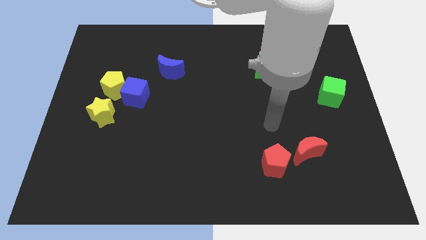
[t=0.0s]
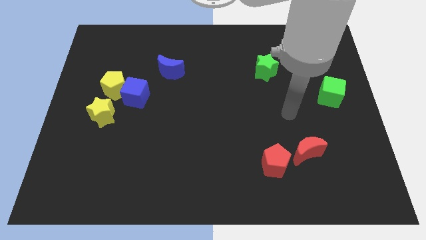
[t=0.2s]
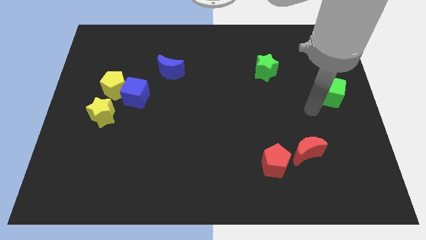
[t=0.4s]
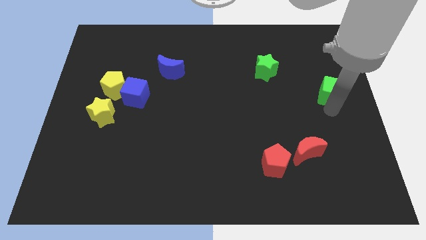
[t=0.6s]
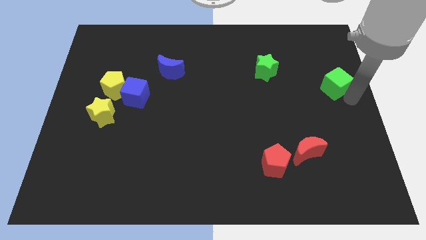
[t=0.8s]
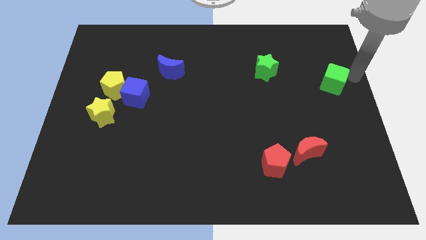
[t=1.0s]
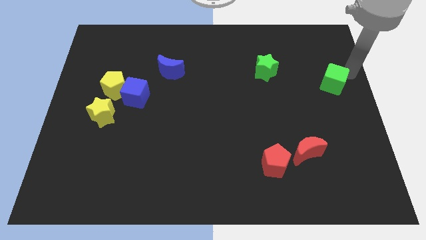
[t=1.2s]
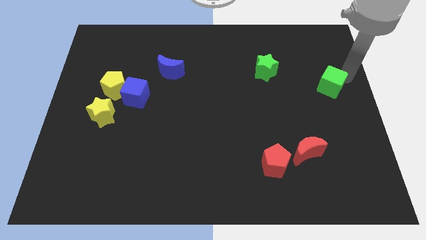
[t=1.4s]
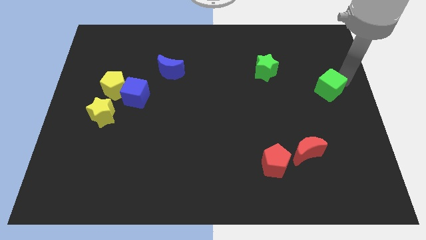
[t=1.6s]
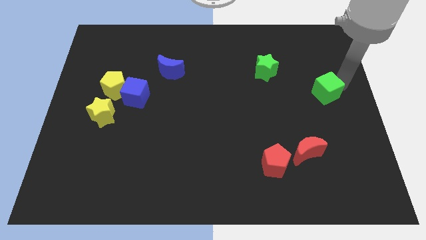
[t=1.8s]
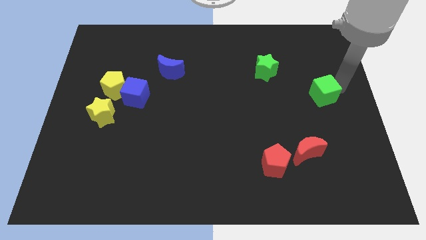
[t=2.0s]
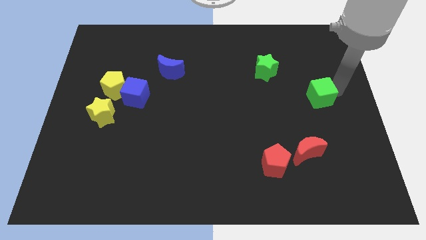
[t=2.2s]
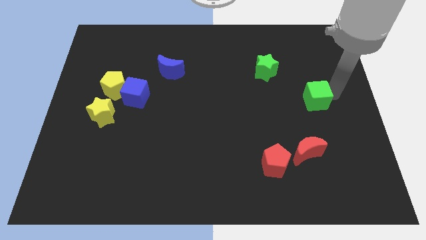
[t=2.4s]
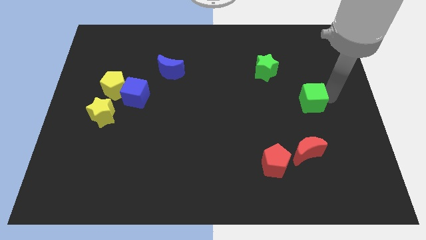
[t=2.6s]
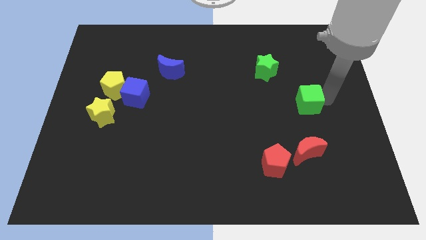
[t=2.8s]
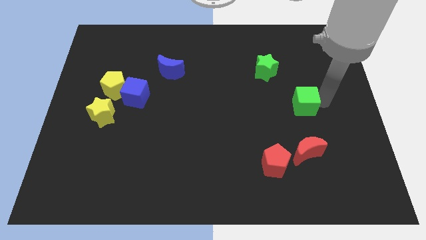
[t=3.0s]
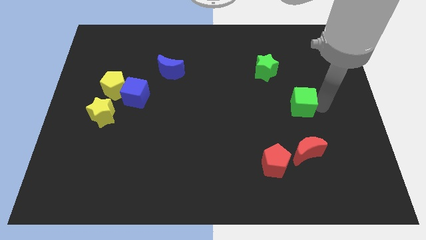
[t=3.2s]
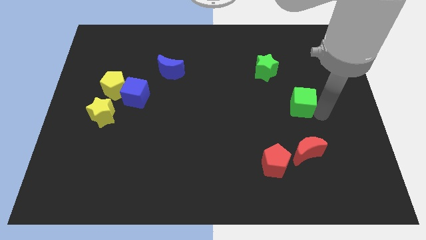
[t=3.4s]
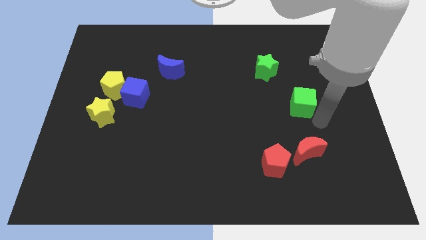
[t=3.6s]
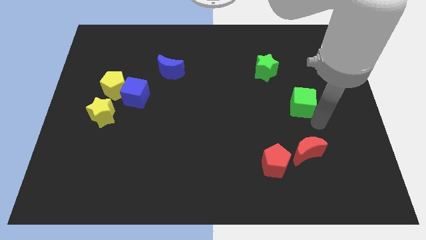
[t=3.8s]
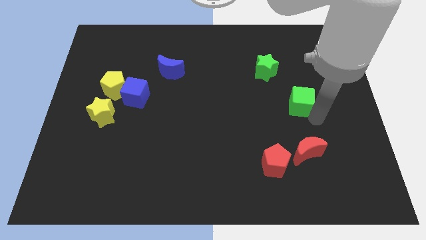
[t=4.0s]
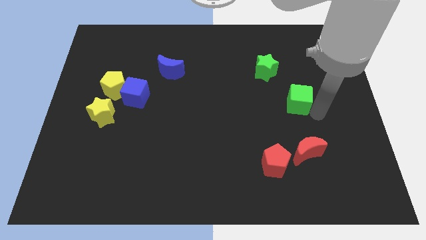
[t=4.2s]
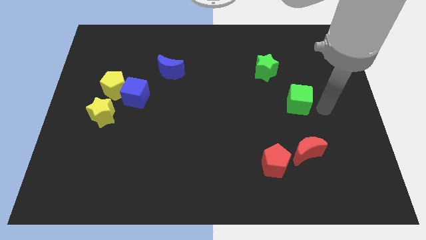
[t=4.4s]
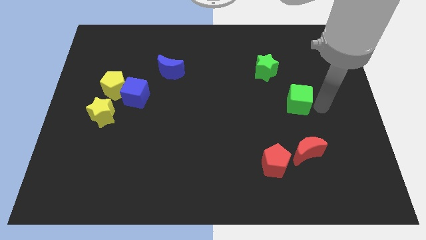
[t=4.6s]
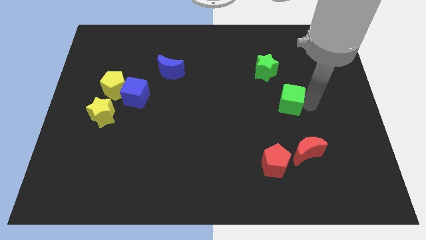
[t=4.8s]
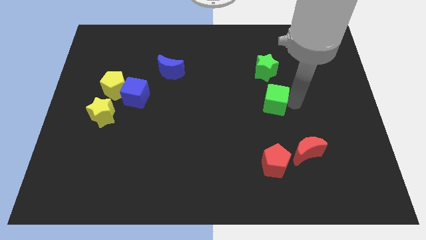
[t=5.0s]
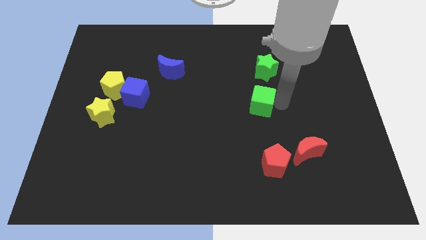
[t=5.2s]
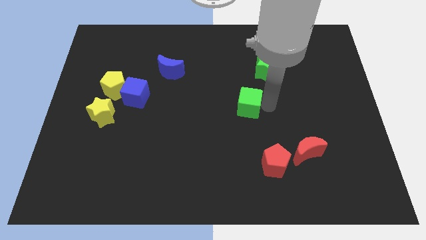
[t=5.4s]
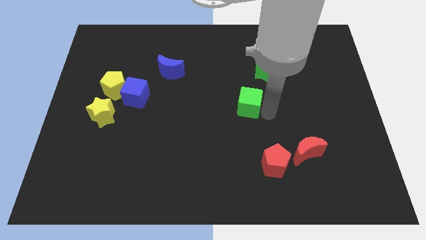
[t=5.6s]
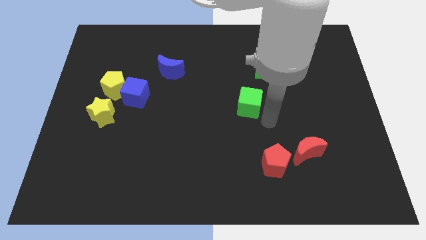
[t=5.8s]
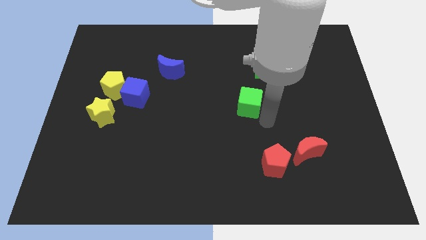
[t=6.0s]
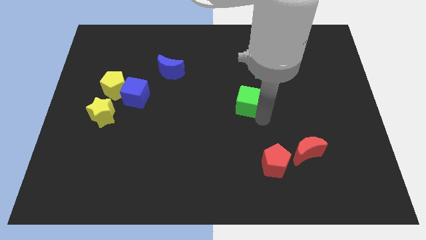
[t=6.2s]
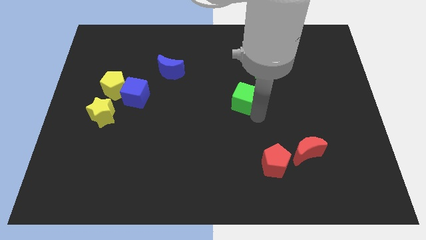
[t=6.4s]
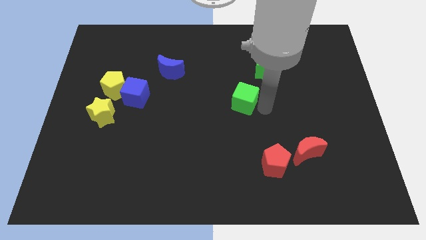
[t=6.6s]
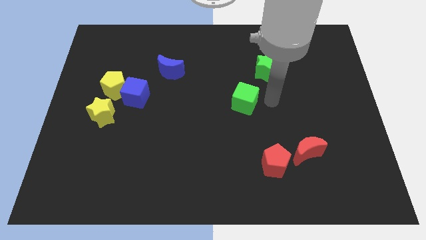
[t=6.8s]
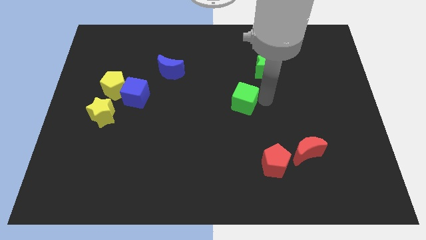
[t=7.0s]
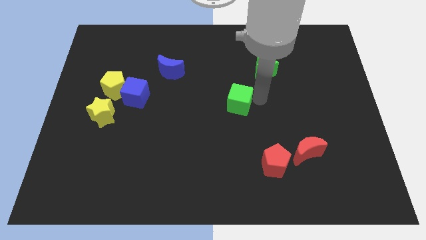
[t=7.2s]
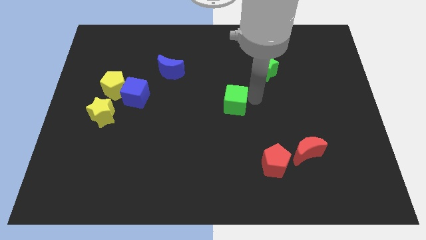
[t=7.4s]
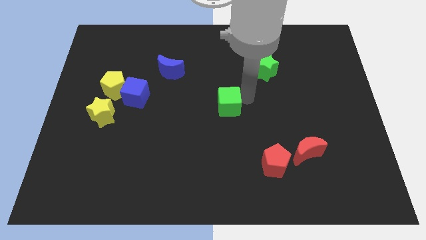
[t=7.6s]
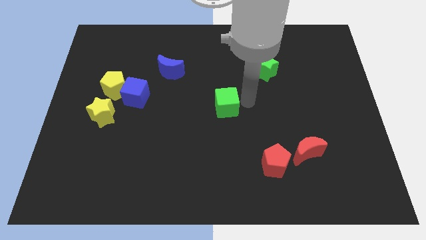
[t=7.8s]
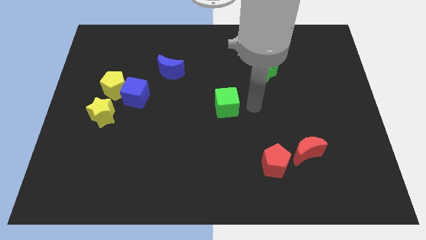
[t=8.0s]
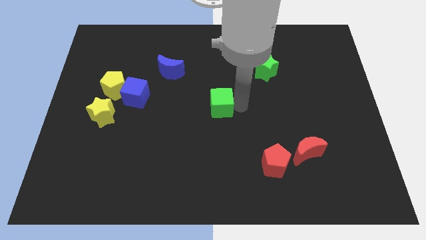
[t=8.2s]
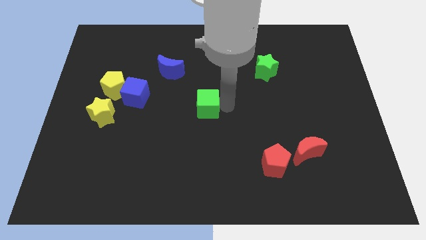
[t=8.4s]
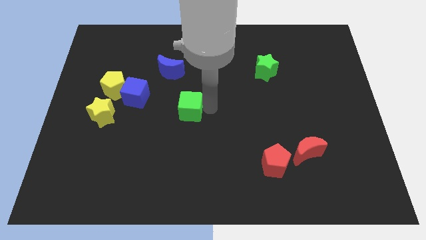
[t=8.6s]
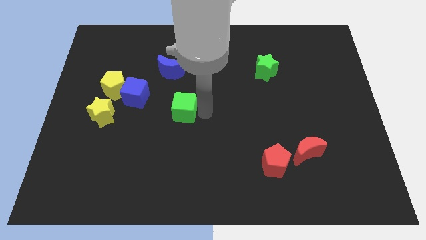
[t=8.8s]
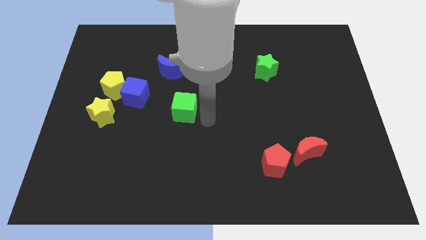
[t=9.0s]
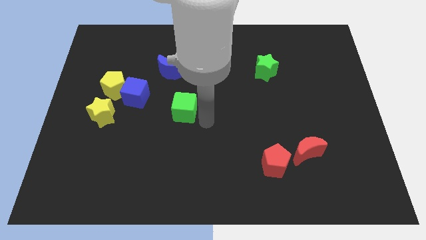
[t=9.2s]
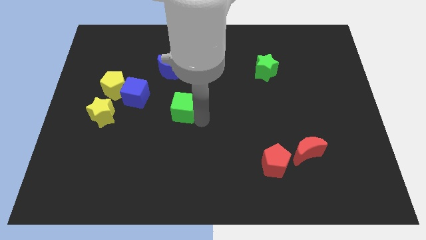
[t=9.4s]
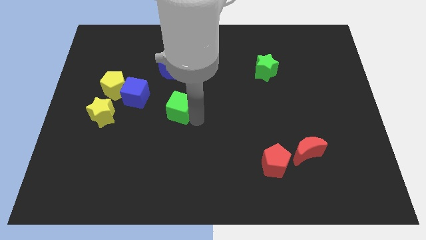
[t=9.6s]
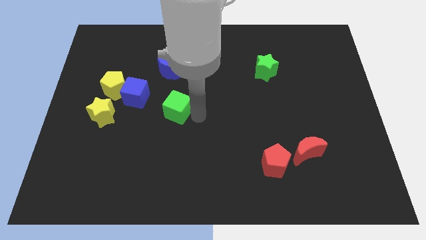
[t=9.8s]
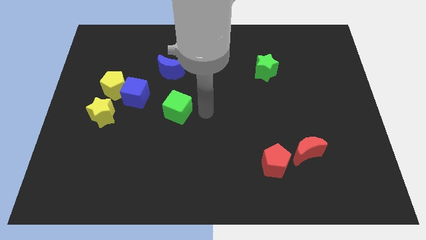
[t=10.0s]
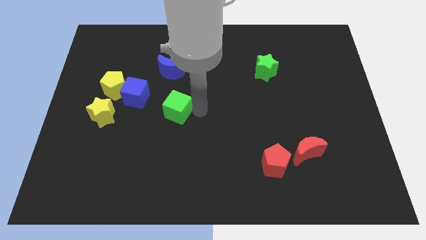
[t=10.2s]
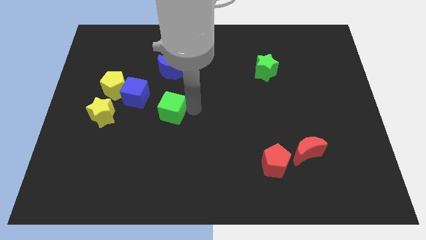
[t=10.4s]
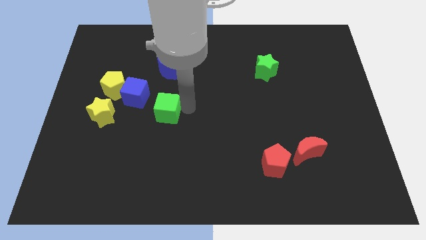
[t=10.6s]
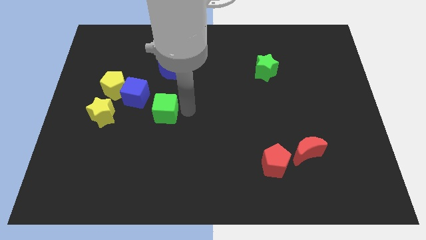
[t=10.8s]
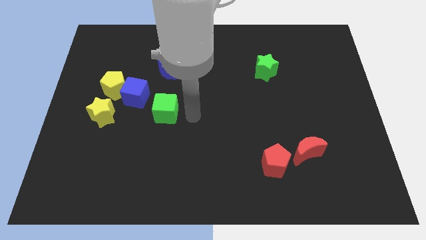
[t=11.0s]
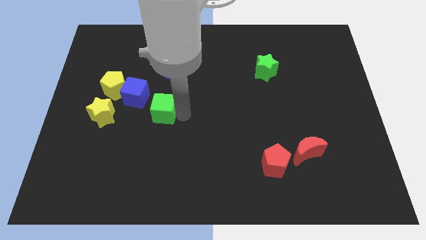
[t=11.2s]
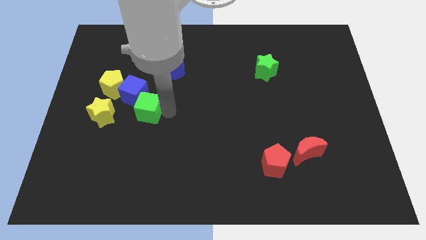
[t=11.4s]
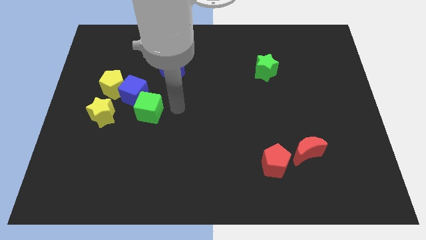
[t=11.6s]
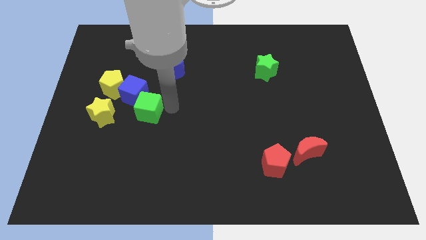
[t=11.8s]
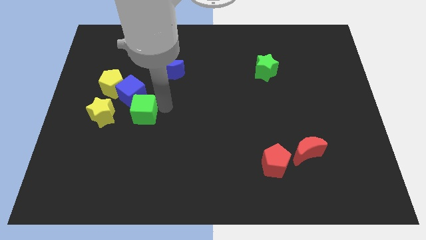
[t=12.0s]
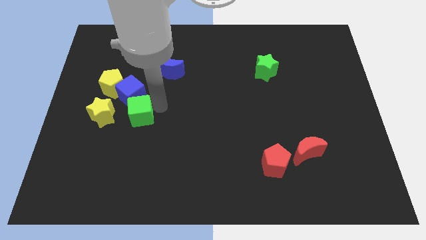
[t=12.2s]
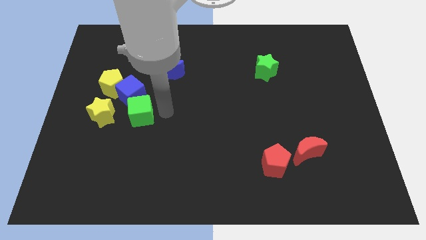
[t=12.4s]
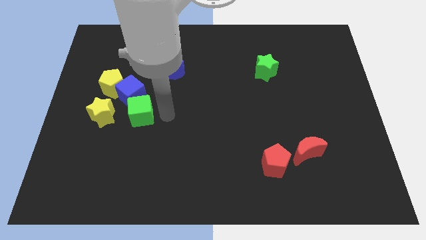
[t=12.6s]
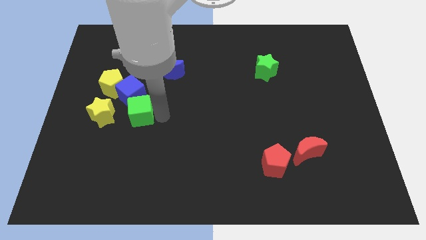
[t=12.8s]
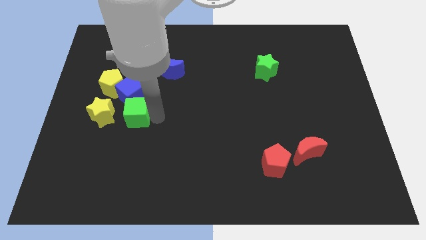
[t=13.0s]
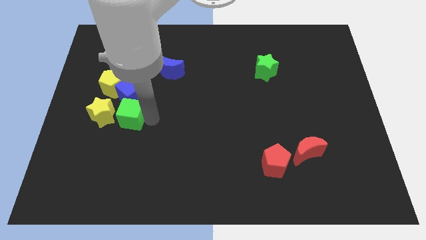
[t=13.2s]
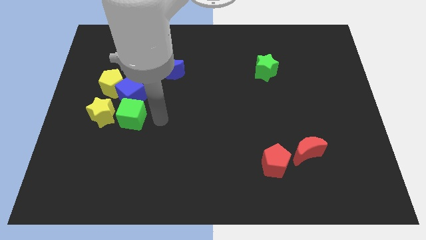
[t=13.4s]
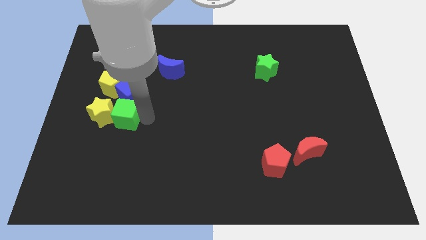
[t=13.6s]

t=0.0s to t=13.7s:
move the green cube to the yellow star
